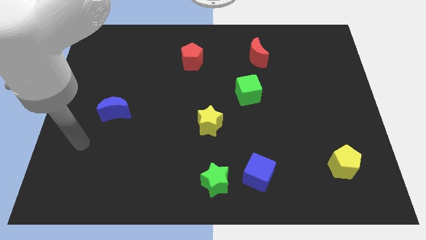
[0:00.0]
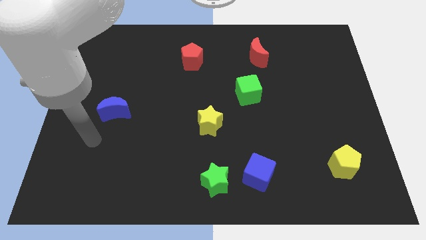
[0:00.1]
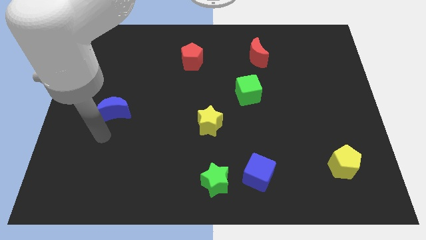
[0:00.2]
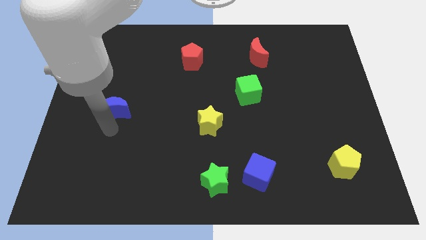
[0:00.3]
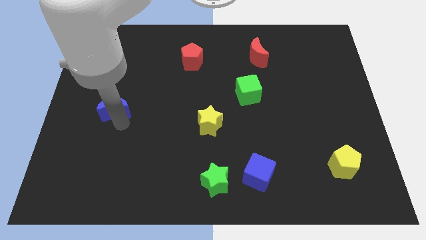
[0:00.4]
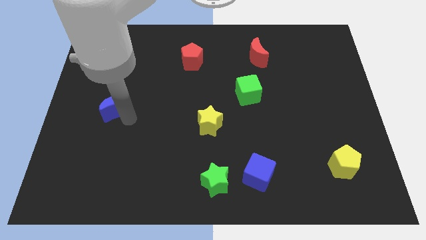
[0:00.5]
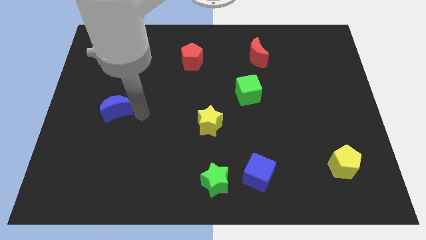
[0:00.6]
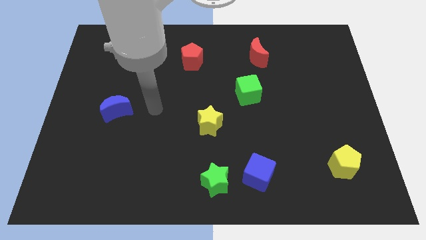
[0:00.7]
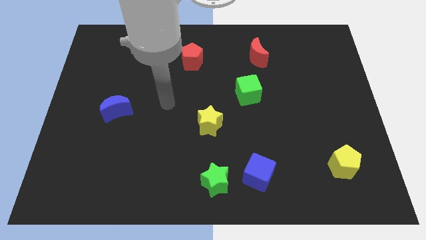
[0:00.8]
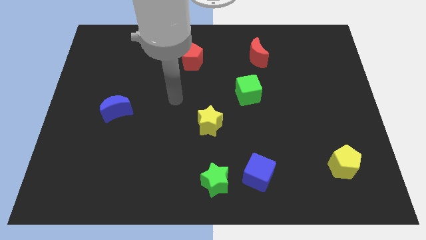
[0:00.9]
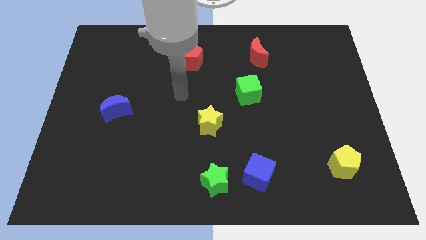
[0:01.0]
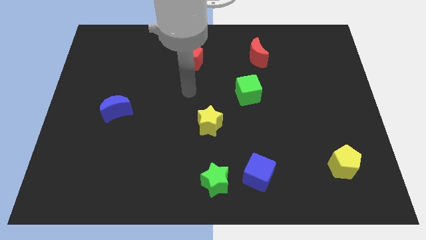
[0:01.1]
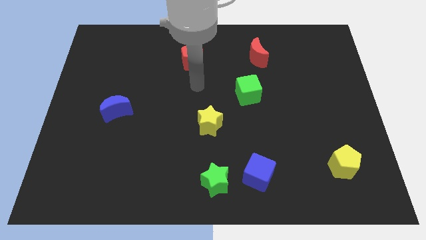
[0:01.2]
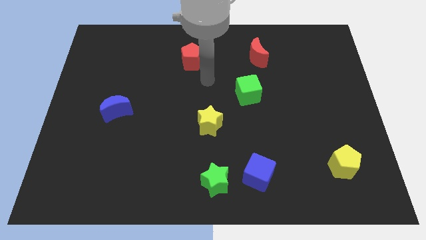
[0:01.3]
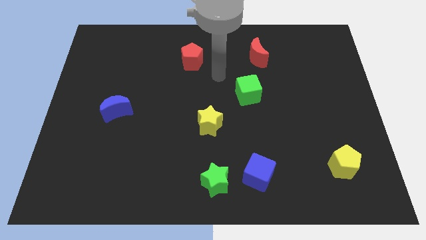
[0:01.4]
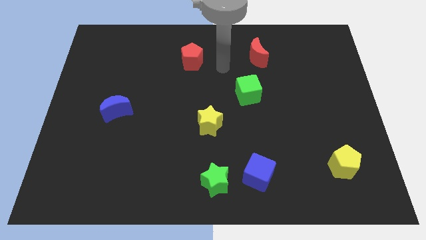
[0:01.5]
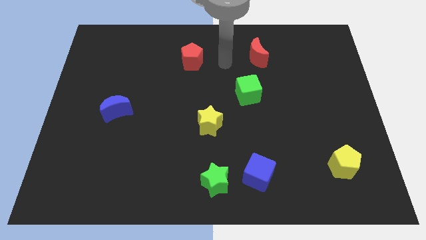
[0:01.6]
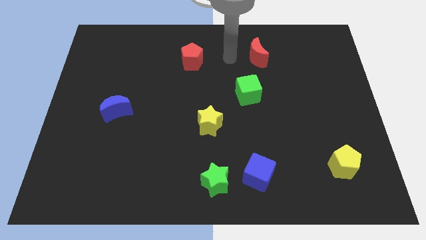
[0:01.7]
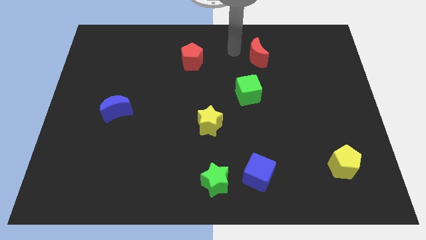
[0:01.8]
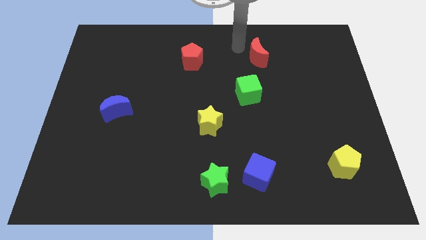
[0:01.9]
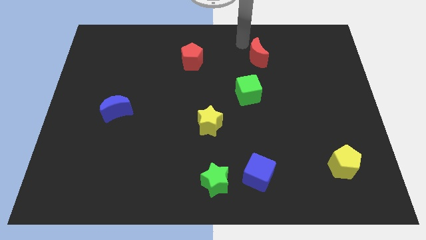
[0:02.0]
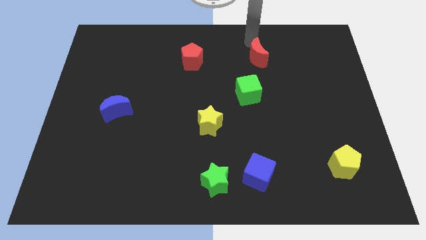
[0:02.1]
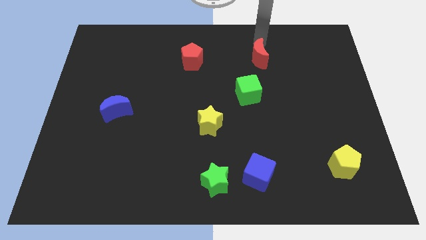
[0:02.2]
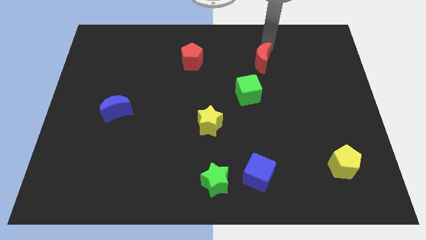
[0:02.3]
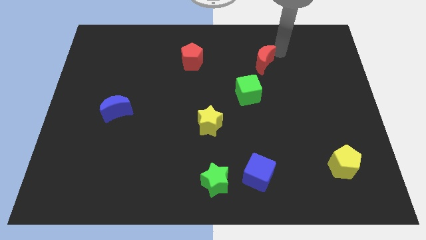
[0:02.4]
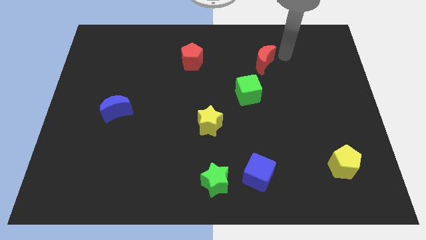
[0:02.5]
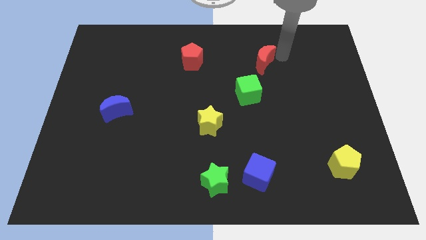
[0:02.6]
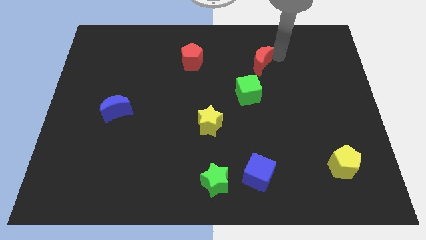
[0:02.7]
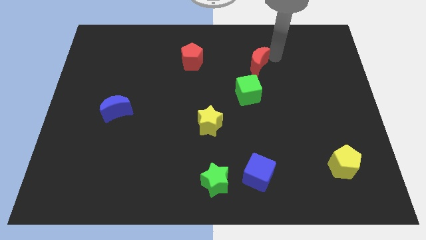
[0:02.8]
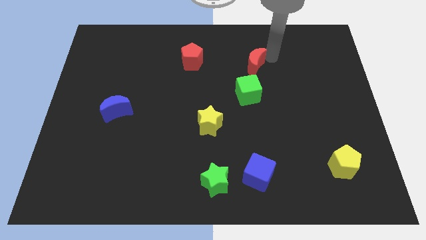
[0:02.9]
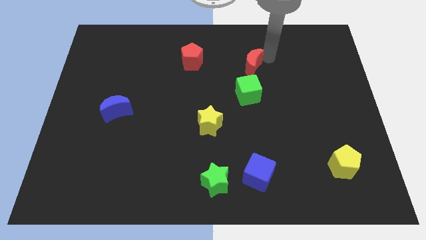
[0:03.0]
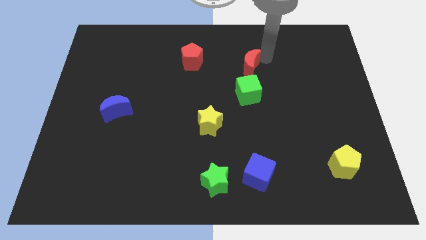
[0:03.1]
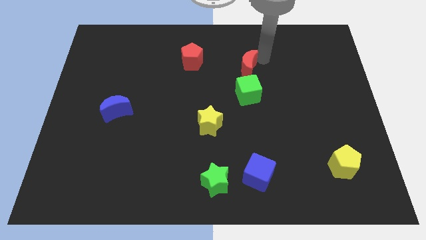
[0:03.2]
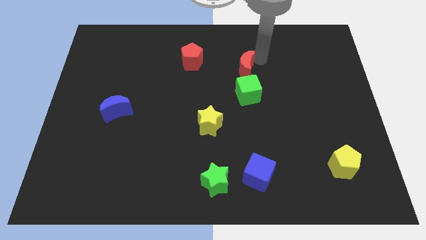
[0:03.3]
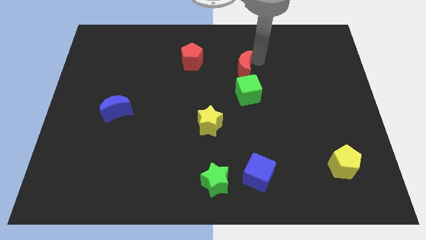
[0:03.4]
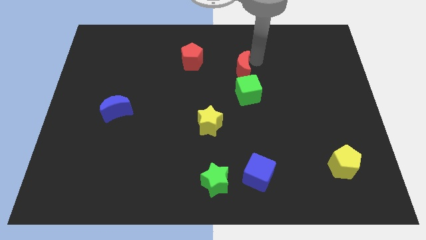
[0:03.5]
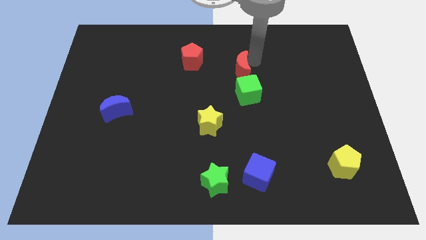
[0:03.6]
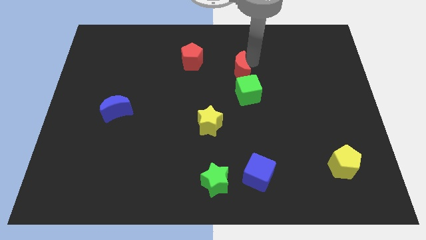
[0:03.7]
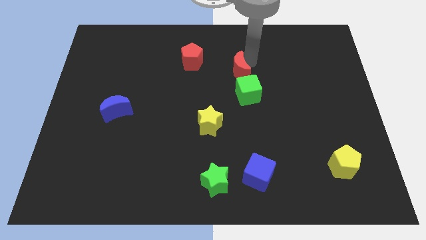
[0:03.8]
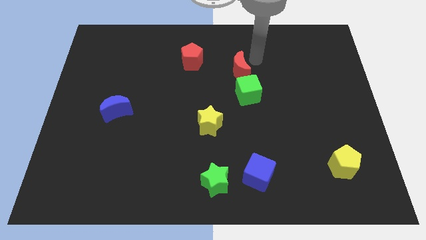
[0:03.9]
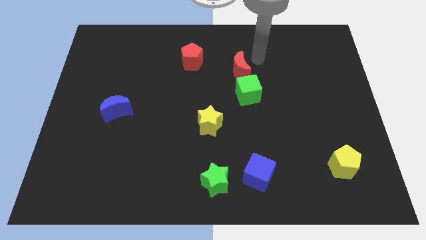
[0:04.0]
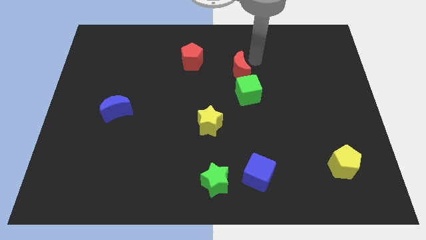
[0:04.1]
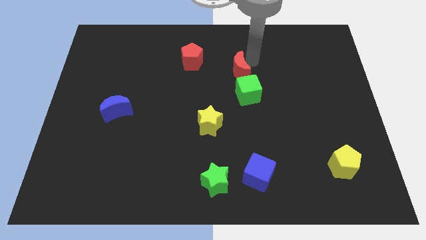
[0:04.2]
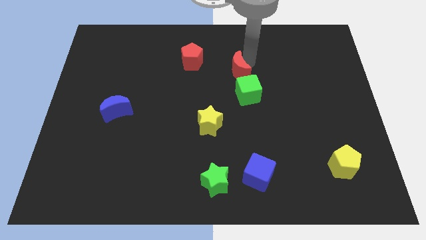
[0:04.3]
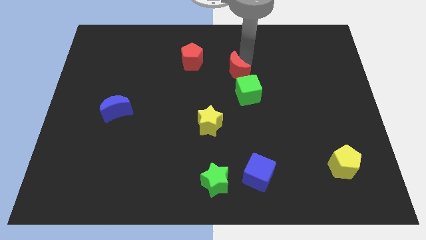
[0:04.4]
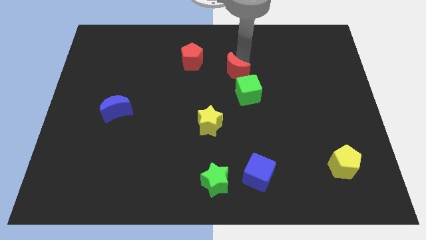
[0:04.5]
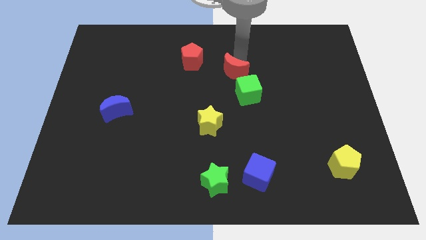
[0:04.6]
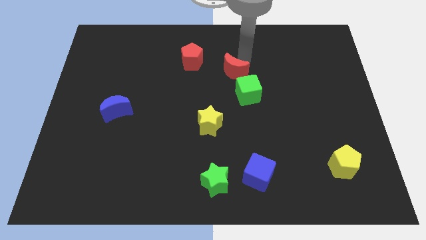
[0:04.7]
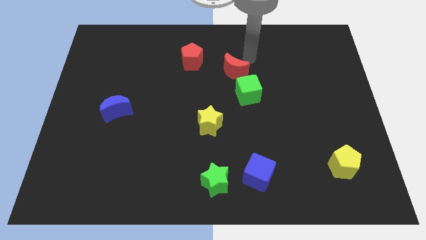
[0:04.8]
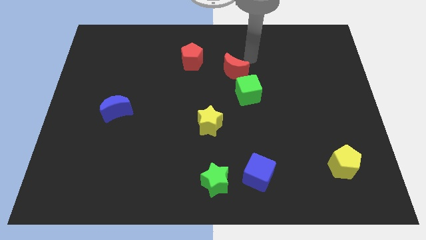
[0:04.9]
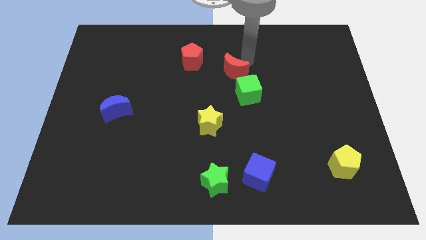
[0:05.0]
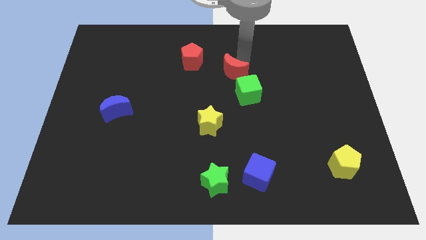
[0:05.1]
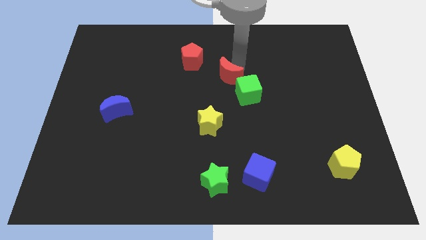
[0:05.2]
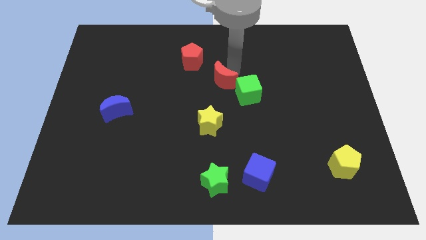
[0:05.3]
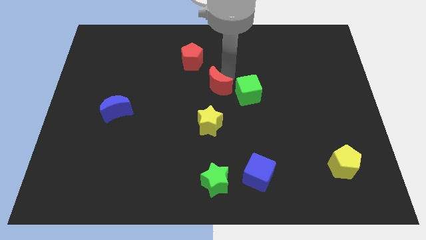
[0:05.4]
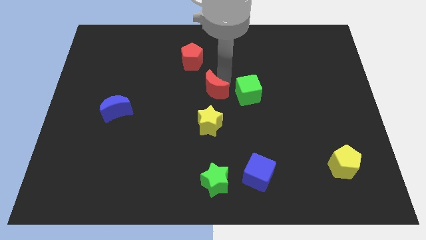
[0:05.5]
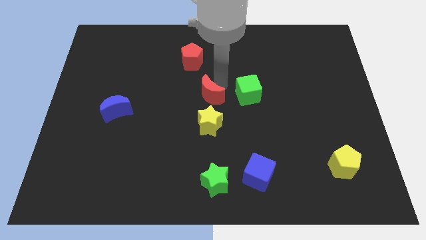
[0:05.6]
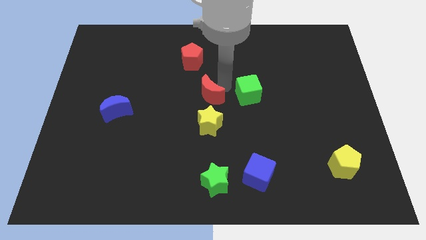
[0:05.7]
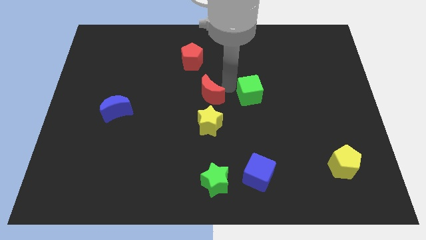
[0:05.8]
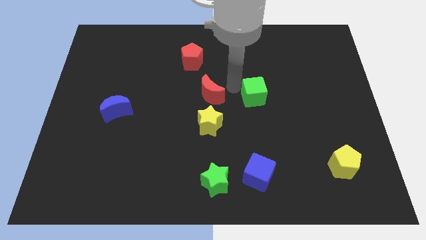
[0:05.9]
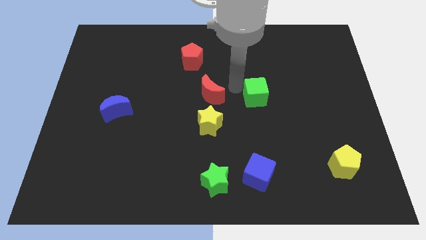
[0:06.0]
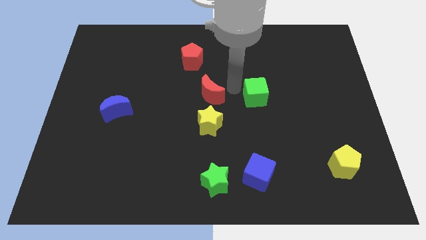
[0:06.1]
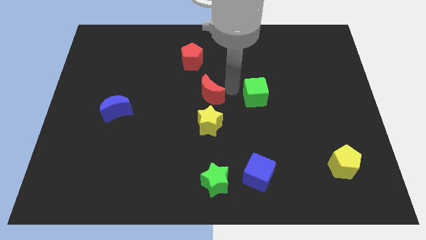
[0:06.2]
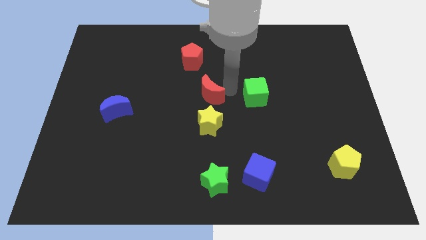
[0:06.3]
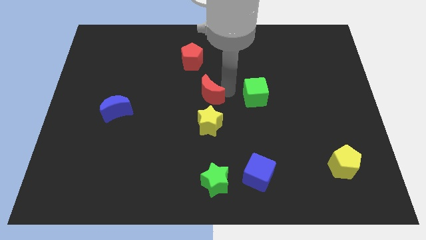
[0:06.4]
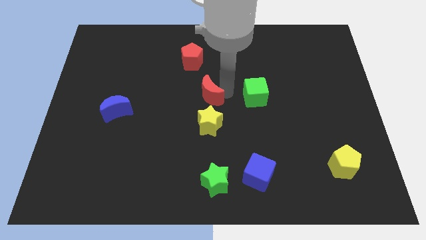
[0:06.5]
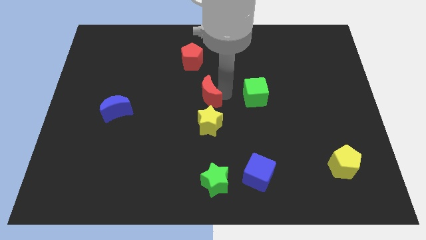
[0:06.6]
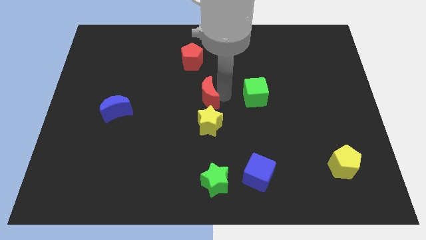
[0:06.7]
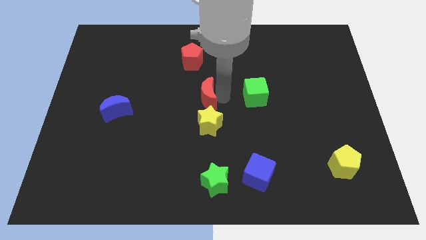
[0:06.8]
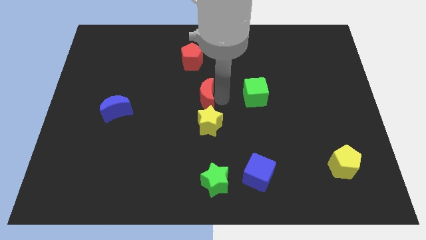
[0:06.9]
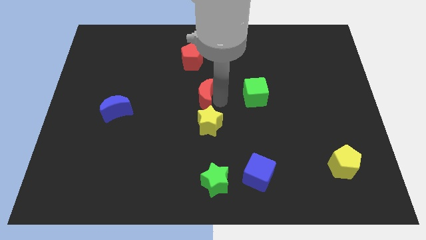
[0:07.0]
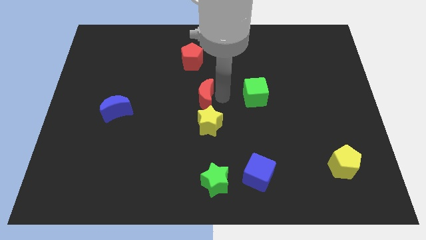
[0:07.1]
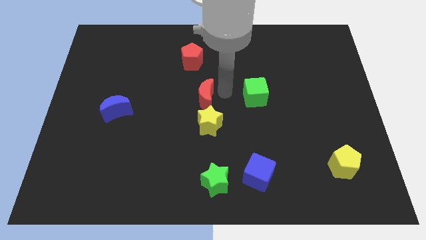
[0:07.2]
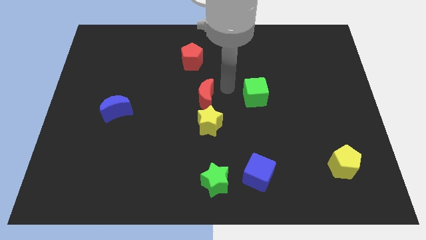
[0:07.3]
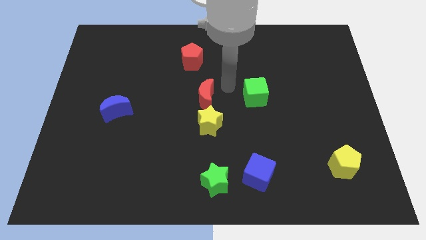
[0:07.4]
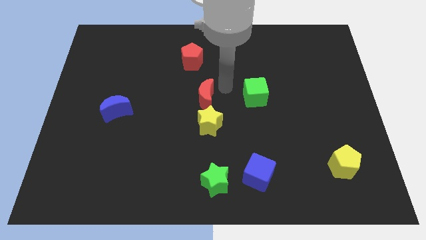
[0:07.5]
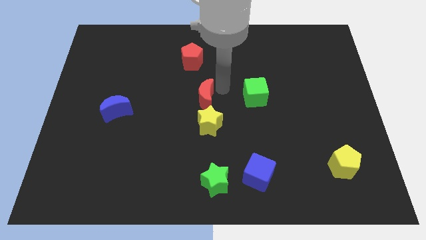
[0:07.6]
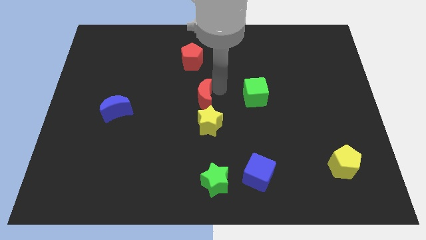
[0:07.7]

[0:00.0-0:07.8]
slide the red moon diagonally down and left

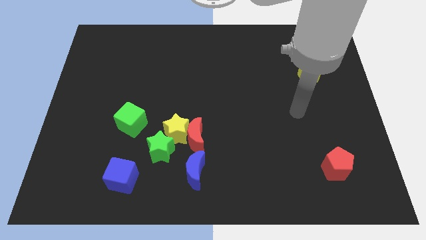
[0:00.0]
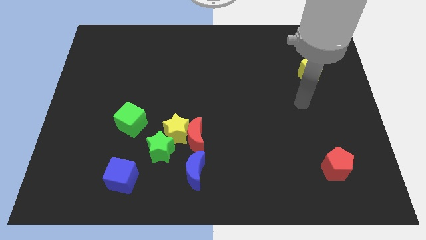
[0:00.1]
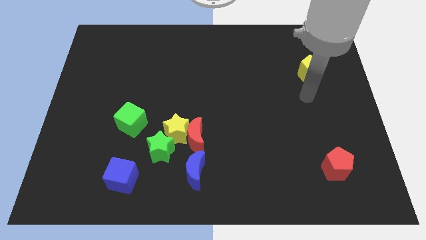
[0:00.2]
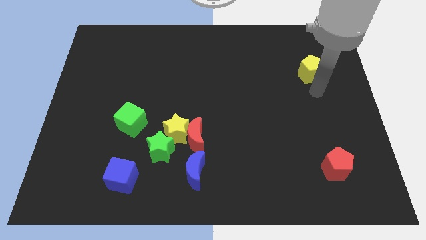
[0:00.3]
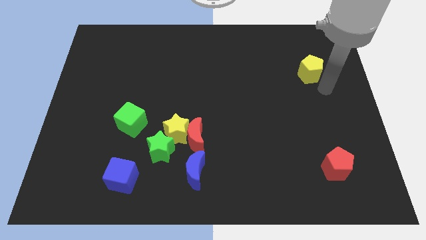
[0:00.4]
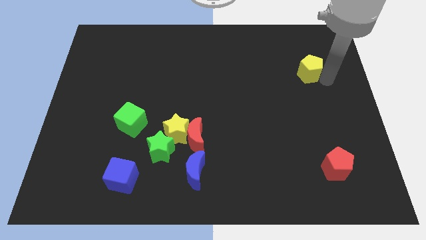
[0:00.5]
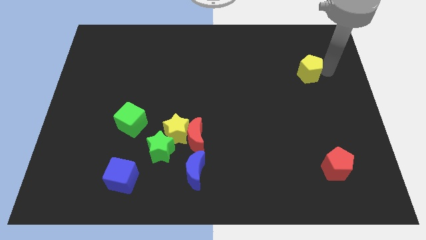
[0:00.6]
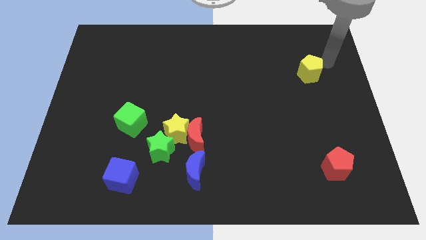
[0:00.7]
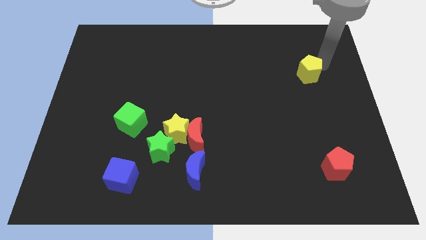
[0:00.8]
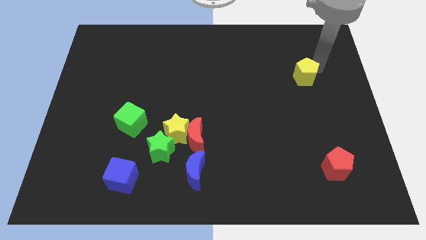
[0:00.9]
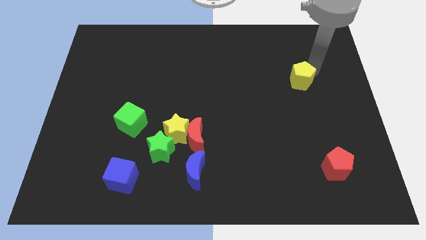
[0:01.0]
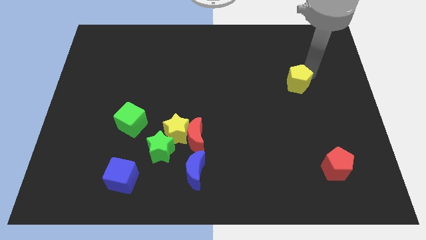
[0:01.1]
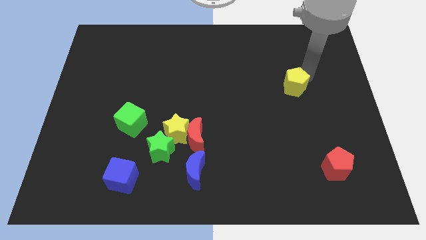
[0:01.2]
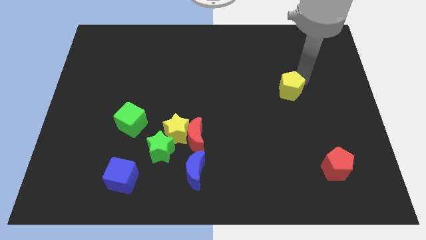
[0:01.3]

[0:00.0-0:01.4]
push the yellow pentagon down and then left somewhat
